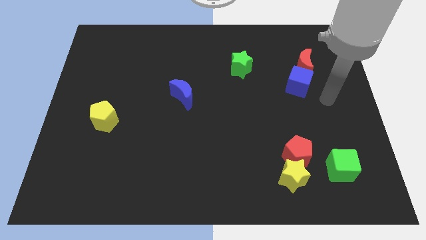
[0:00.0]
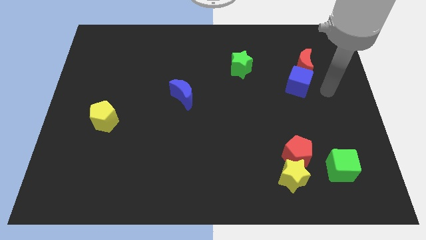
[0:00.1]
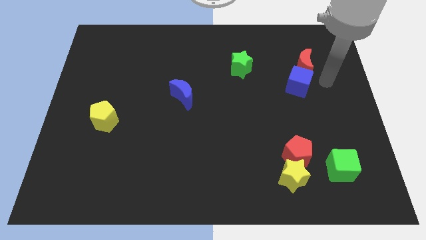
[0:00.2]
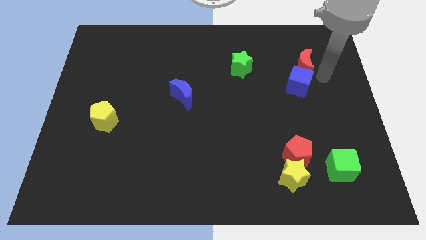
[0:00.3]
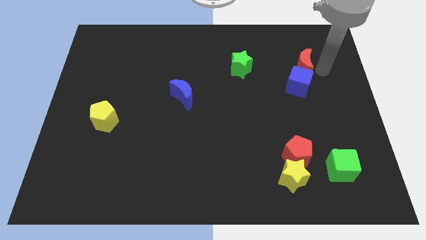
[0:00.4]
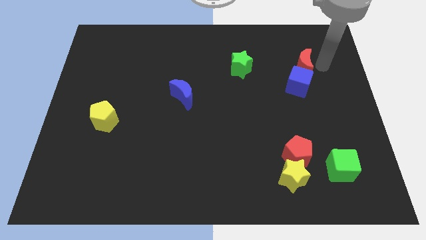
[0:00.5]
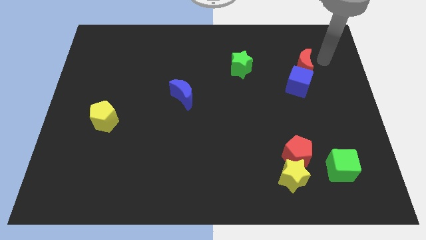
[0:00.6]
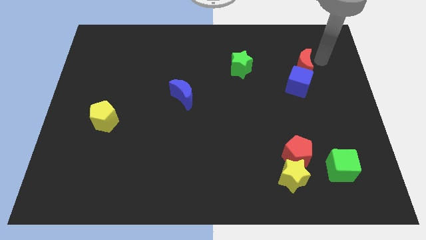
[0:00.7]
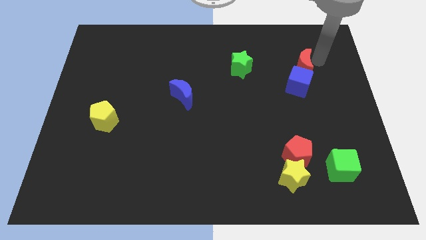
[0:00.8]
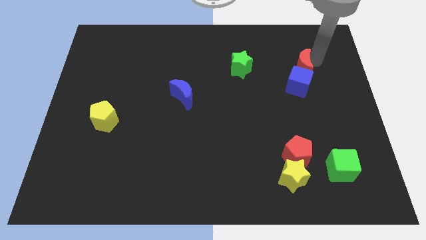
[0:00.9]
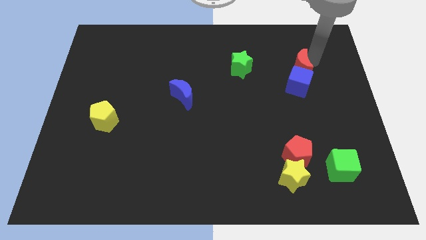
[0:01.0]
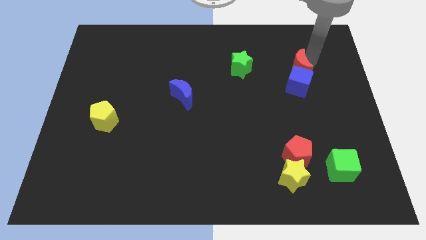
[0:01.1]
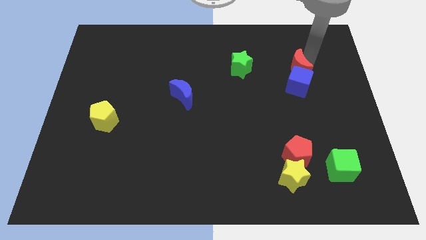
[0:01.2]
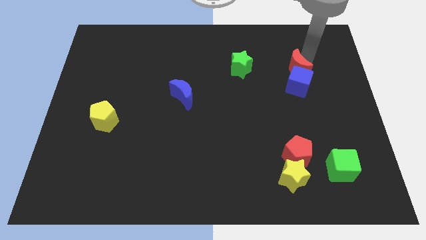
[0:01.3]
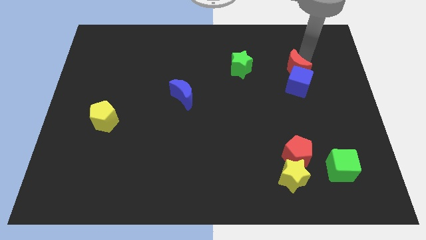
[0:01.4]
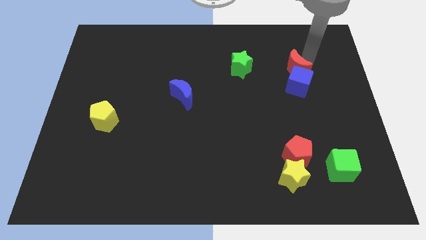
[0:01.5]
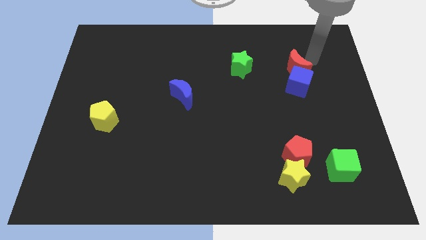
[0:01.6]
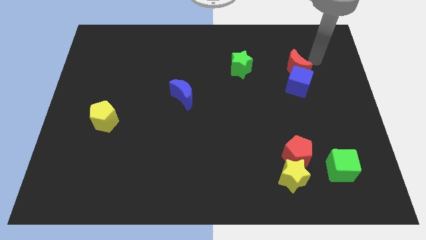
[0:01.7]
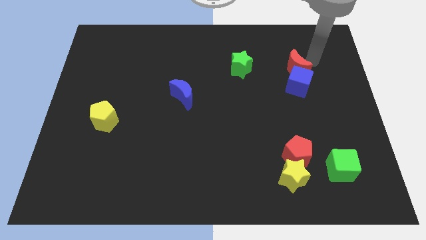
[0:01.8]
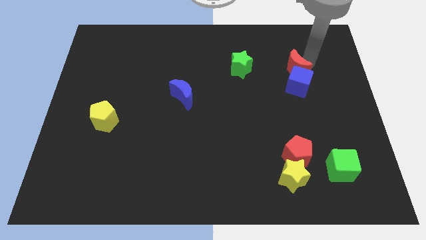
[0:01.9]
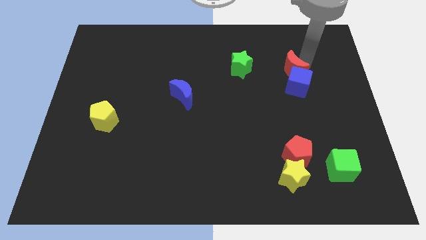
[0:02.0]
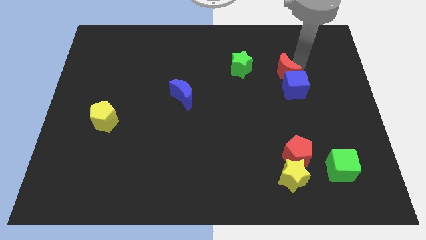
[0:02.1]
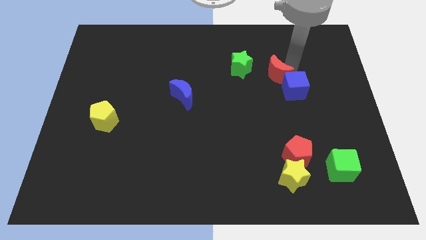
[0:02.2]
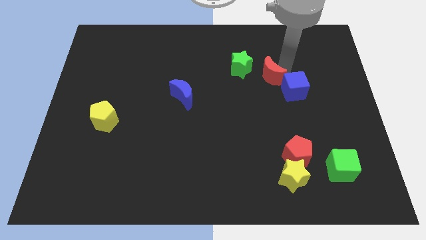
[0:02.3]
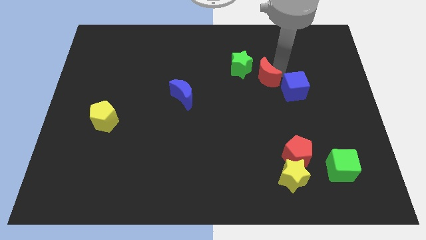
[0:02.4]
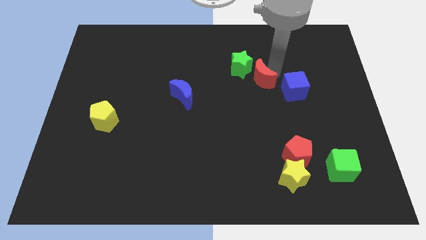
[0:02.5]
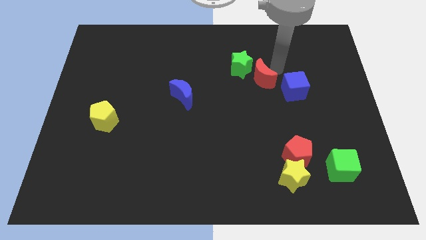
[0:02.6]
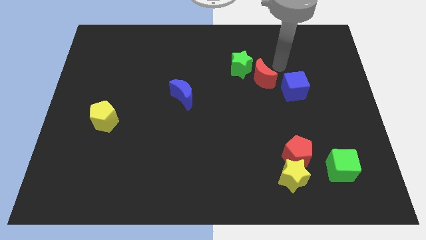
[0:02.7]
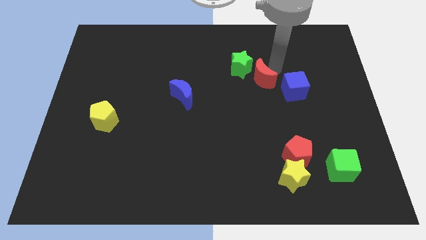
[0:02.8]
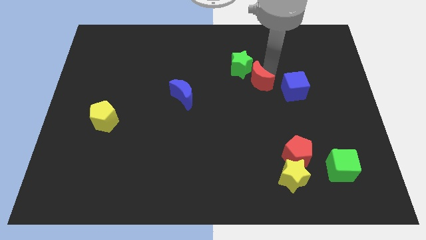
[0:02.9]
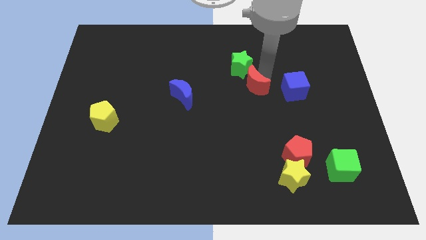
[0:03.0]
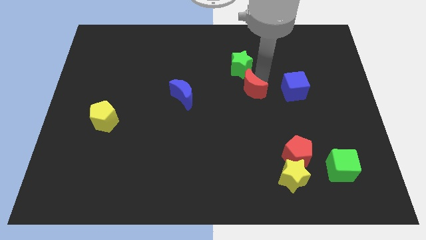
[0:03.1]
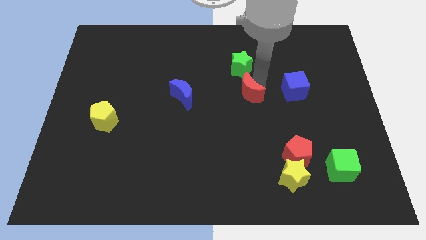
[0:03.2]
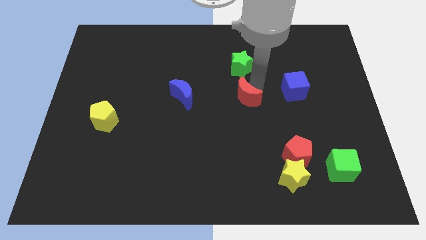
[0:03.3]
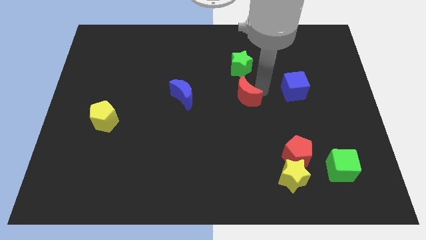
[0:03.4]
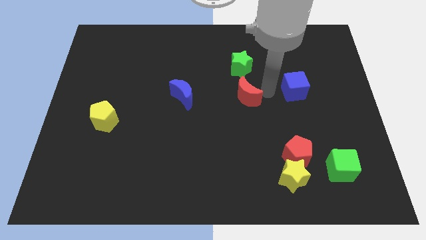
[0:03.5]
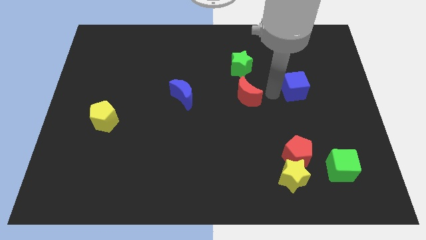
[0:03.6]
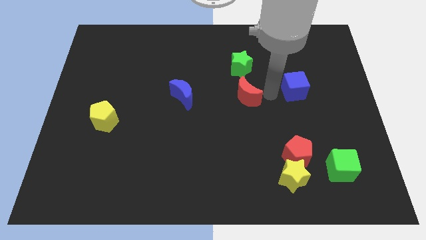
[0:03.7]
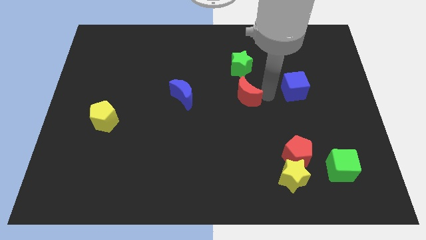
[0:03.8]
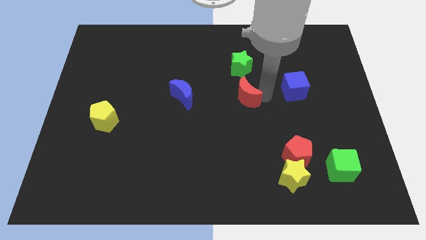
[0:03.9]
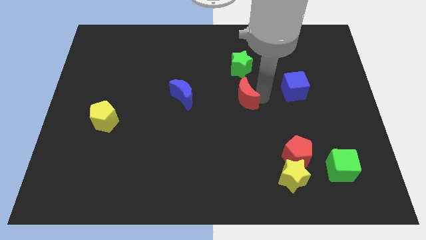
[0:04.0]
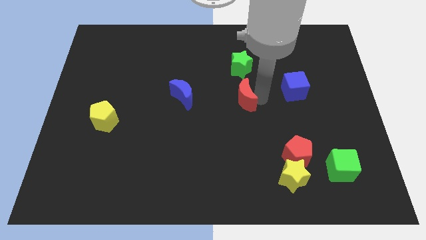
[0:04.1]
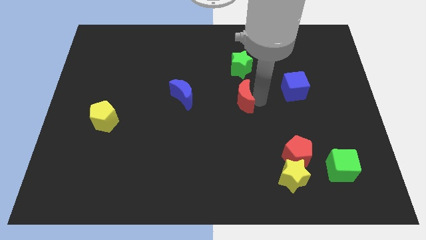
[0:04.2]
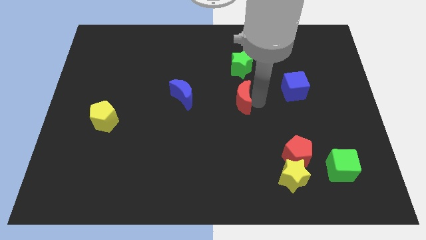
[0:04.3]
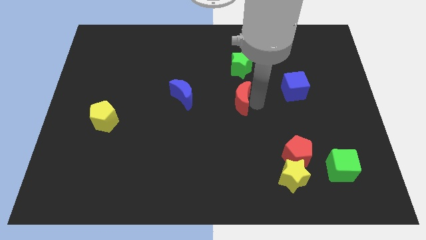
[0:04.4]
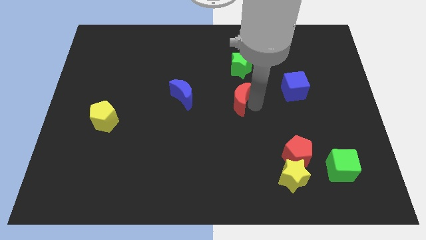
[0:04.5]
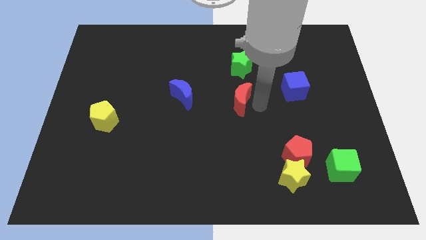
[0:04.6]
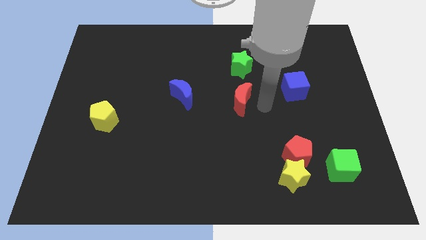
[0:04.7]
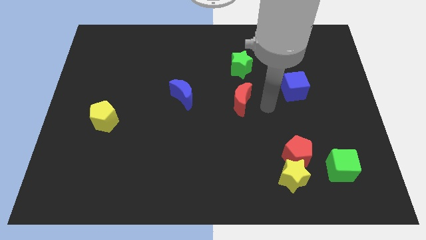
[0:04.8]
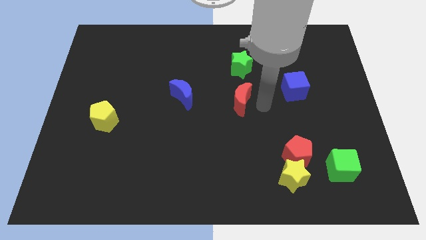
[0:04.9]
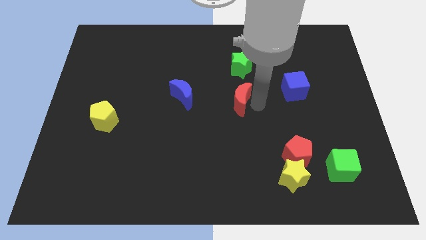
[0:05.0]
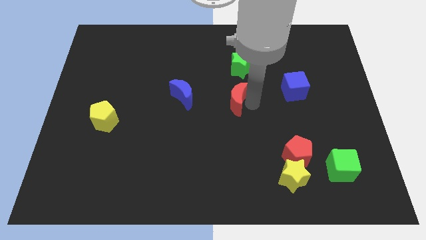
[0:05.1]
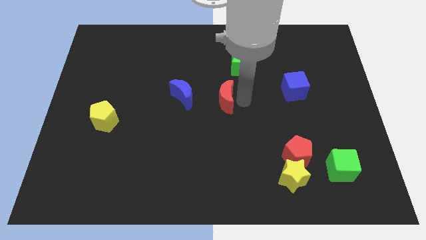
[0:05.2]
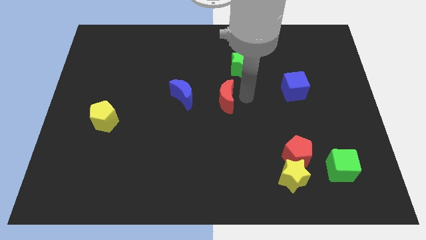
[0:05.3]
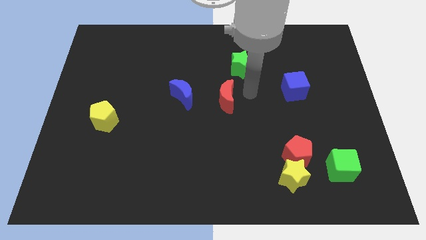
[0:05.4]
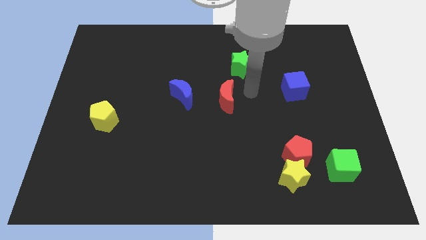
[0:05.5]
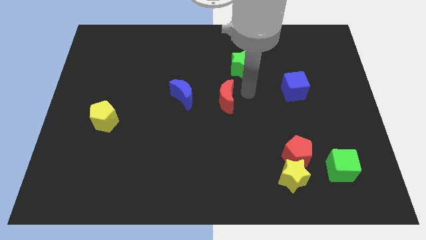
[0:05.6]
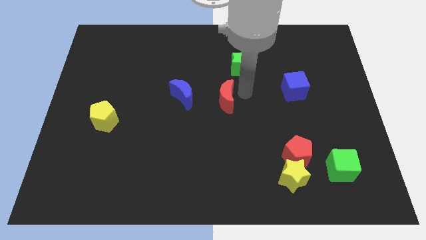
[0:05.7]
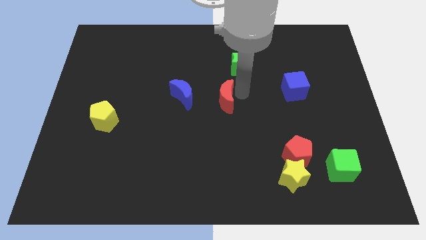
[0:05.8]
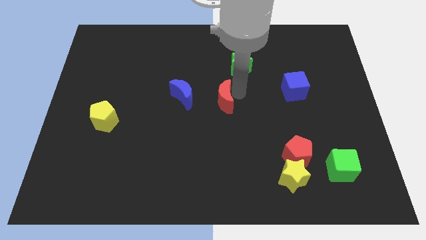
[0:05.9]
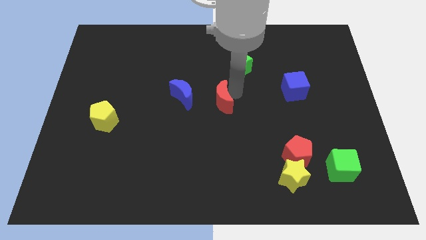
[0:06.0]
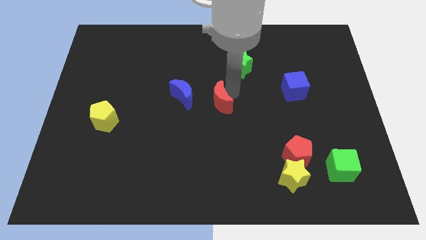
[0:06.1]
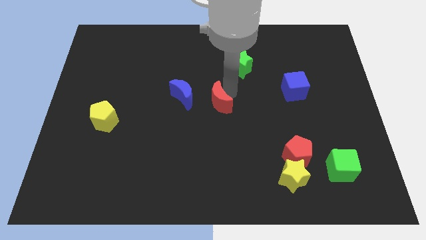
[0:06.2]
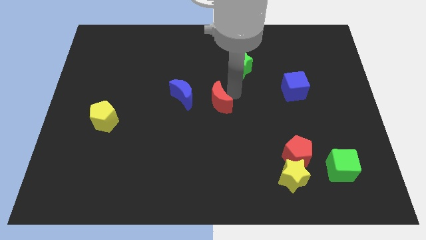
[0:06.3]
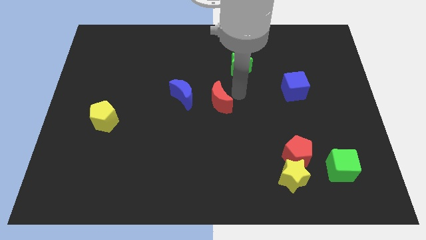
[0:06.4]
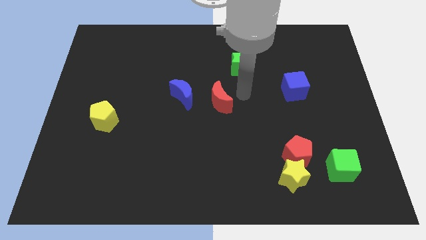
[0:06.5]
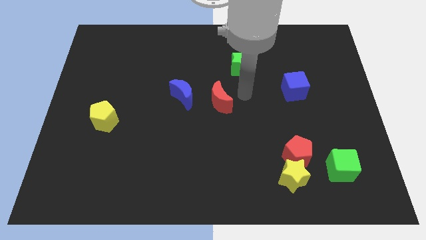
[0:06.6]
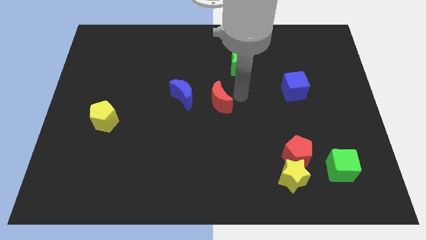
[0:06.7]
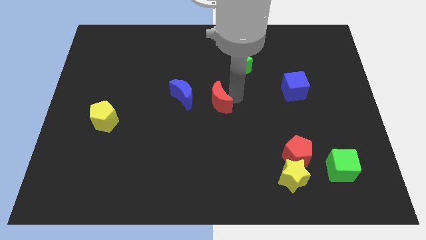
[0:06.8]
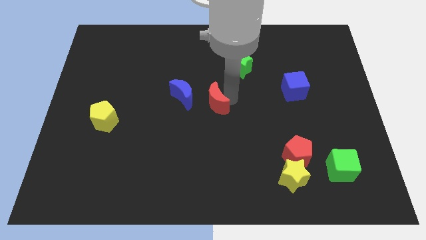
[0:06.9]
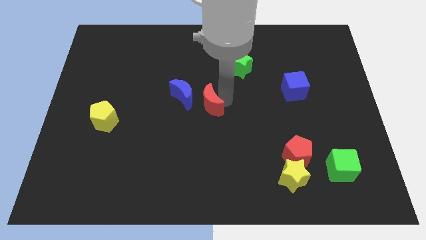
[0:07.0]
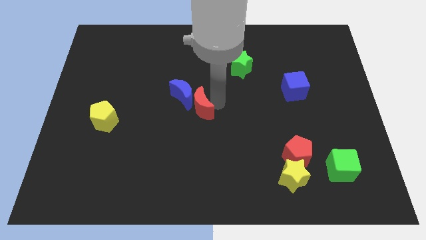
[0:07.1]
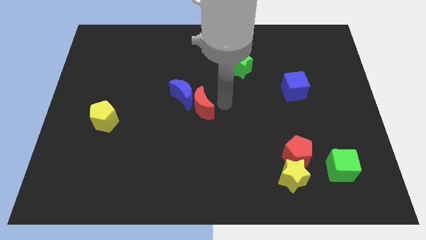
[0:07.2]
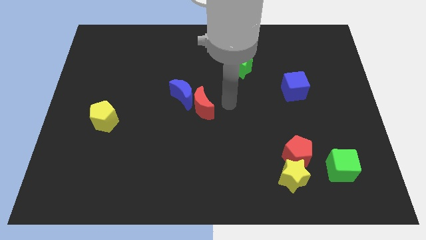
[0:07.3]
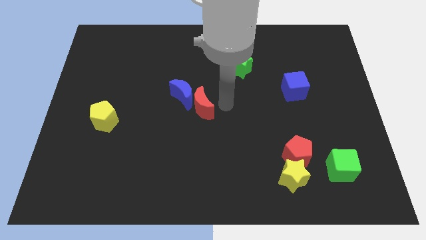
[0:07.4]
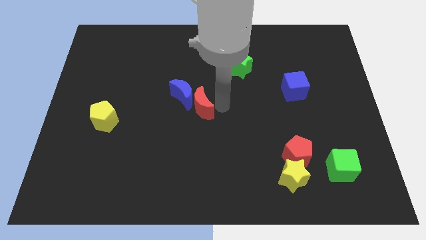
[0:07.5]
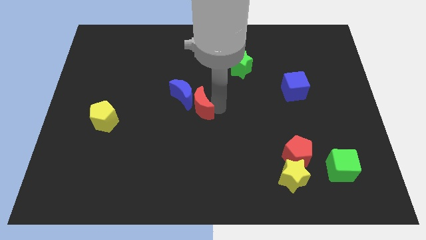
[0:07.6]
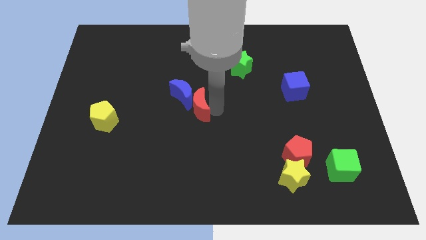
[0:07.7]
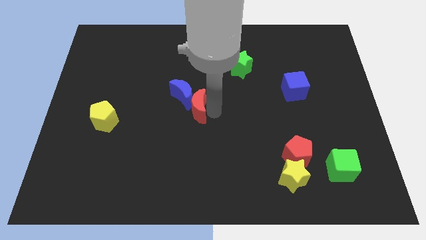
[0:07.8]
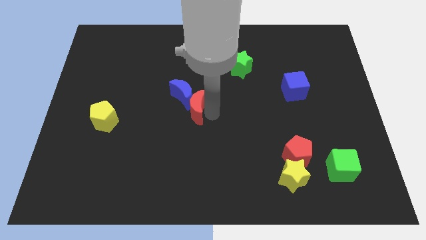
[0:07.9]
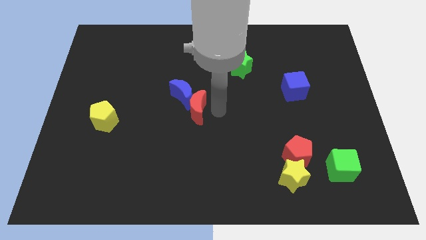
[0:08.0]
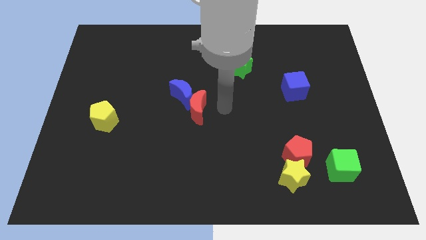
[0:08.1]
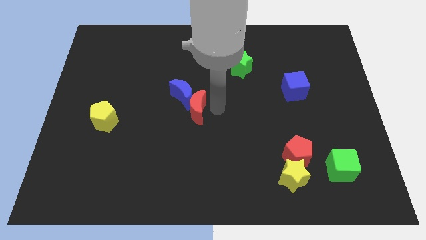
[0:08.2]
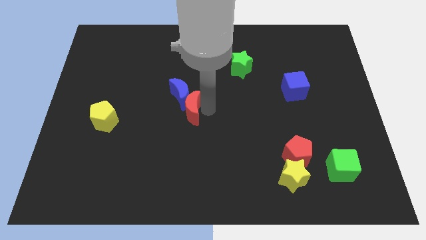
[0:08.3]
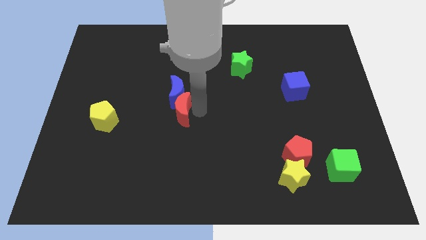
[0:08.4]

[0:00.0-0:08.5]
move the red moon to the bottom left of the blue moon
